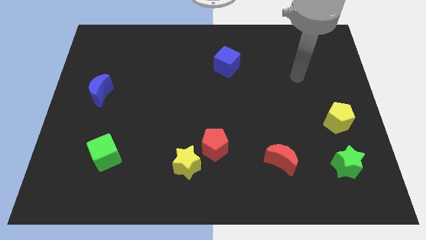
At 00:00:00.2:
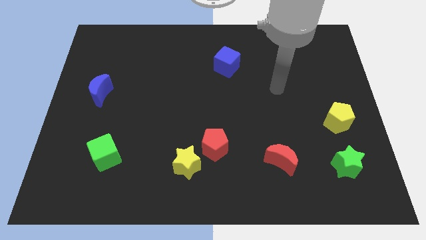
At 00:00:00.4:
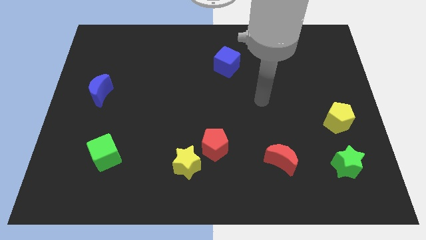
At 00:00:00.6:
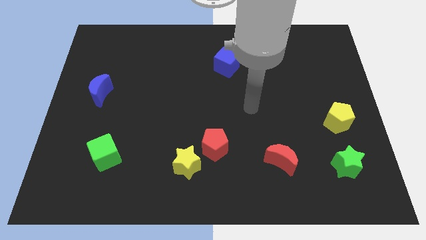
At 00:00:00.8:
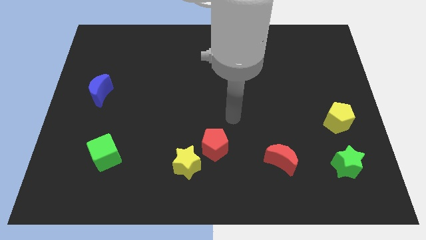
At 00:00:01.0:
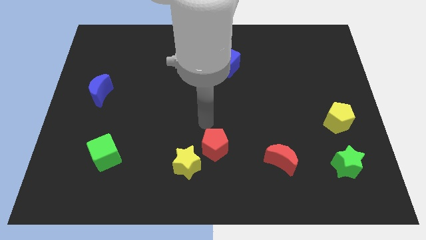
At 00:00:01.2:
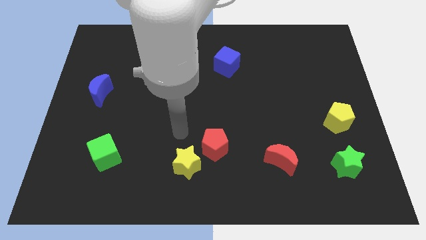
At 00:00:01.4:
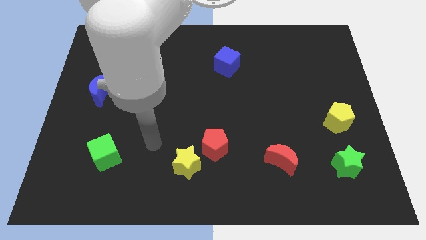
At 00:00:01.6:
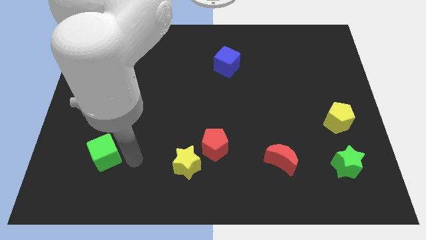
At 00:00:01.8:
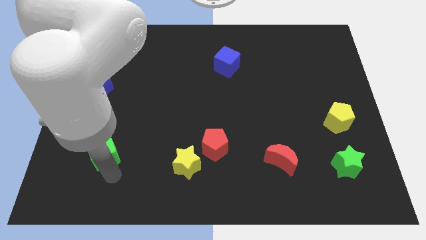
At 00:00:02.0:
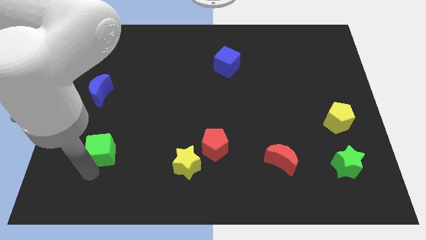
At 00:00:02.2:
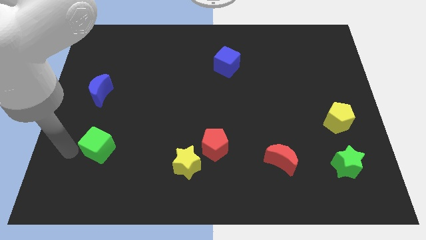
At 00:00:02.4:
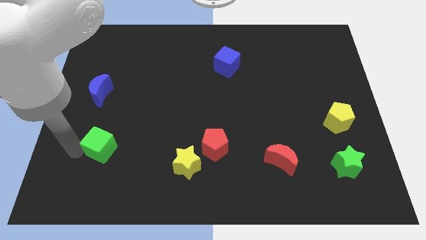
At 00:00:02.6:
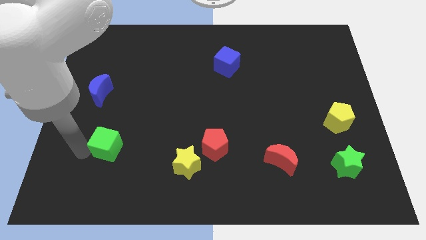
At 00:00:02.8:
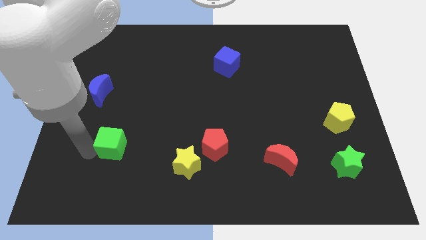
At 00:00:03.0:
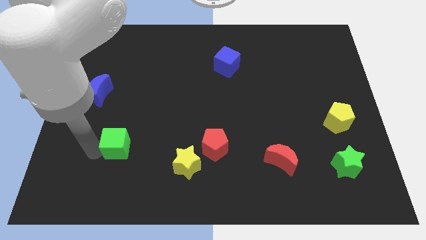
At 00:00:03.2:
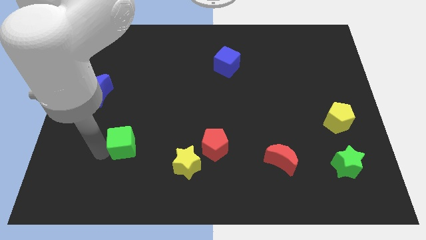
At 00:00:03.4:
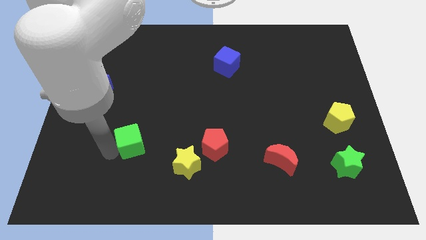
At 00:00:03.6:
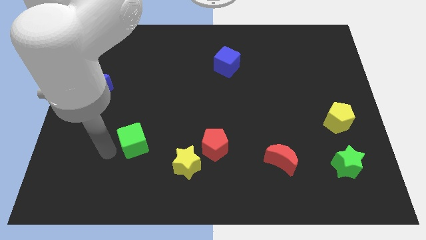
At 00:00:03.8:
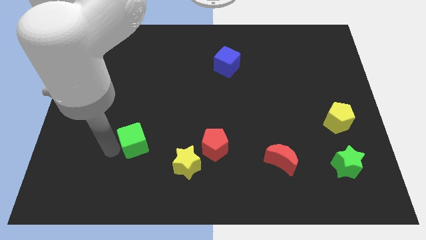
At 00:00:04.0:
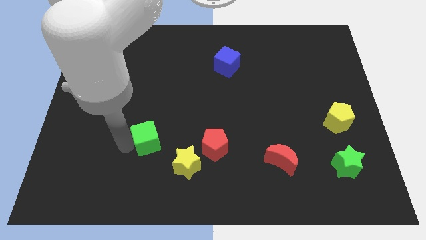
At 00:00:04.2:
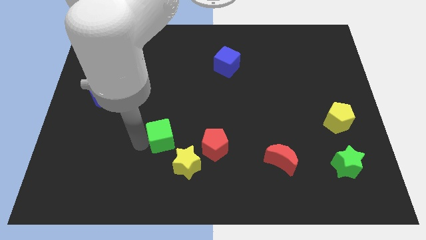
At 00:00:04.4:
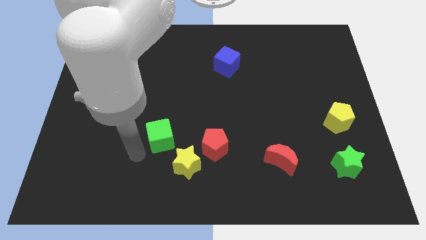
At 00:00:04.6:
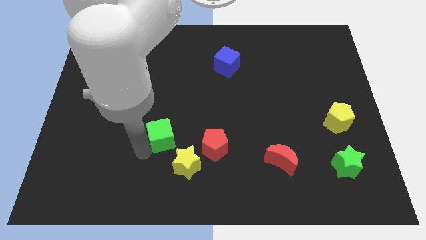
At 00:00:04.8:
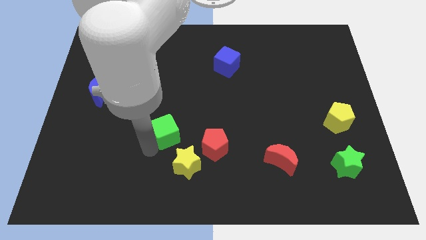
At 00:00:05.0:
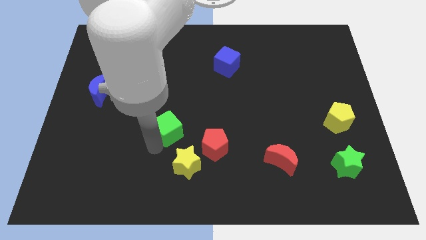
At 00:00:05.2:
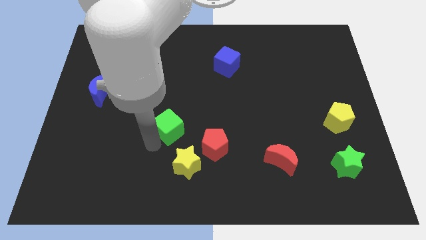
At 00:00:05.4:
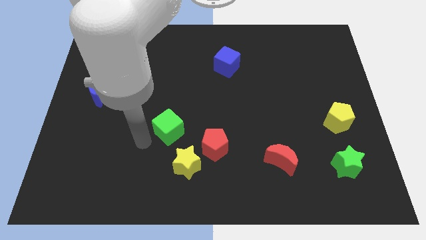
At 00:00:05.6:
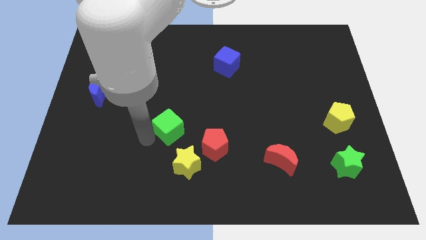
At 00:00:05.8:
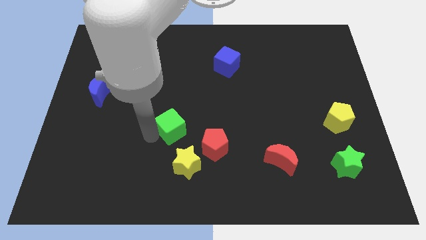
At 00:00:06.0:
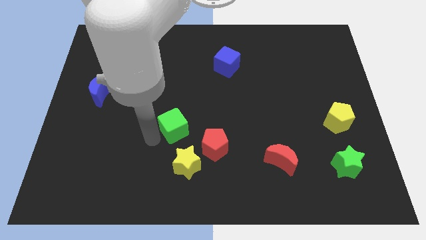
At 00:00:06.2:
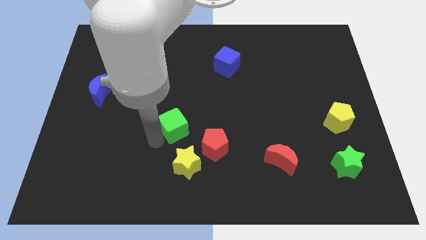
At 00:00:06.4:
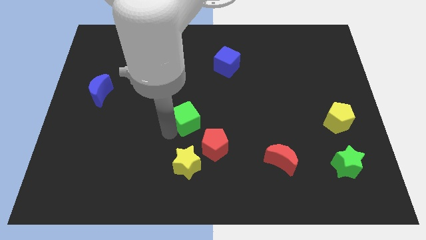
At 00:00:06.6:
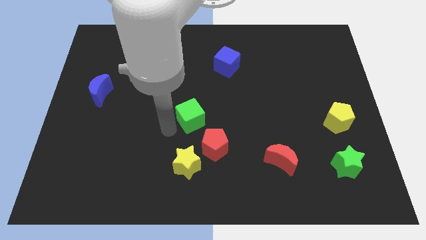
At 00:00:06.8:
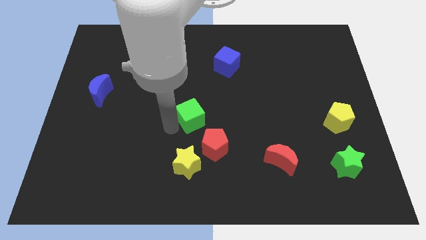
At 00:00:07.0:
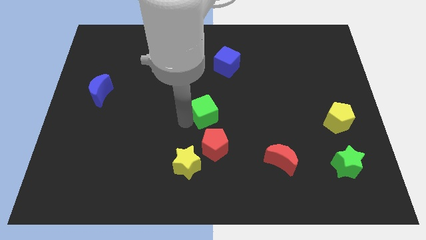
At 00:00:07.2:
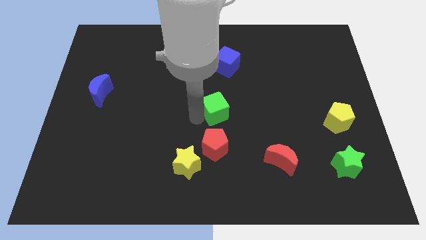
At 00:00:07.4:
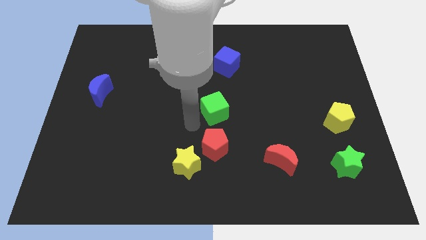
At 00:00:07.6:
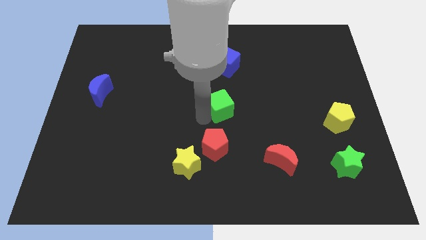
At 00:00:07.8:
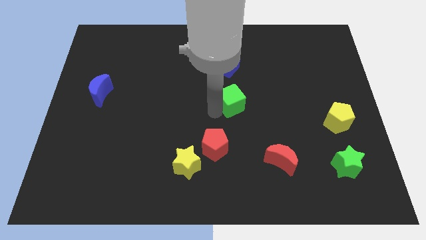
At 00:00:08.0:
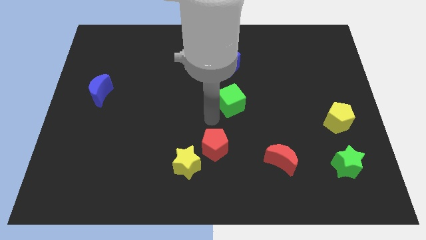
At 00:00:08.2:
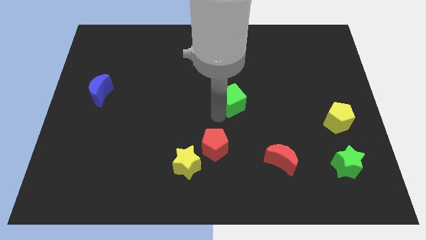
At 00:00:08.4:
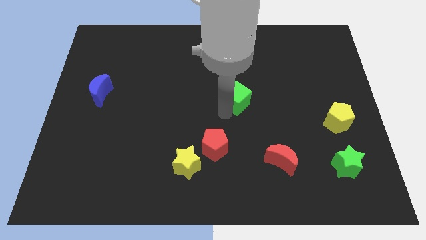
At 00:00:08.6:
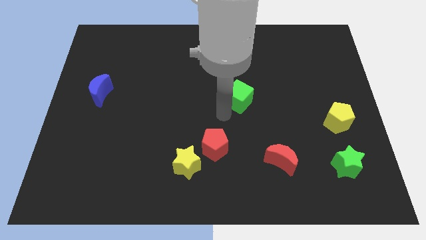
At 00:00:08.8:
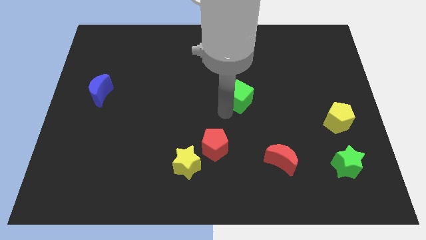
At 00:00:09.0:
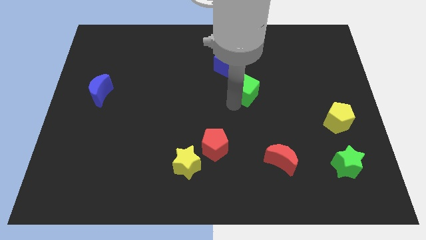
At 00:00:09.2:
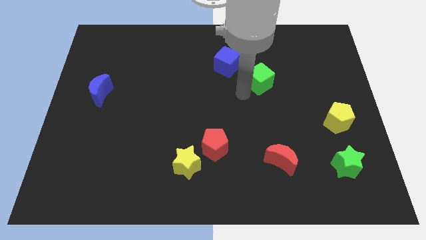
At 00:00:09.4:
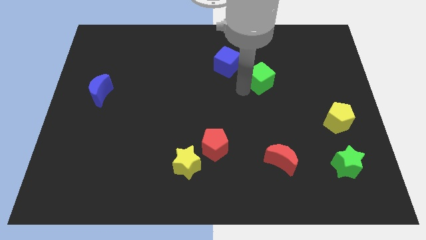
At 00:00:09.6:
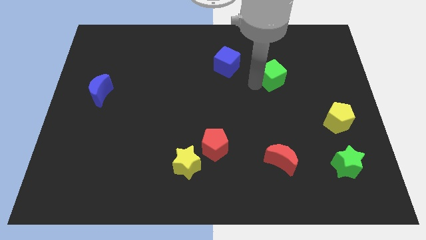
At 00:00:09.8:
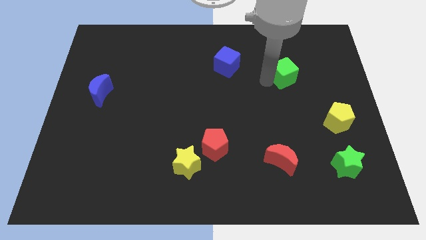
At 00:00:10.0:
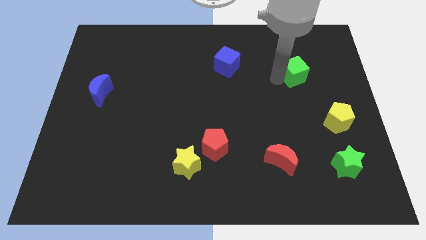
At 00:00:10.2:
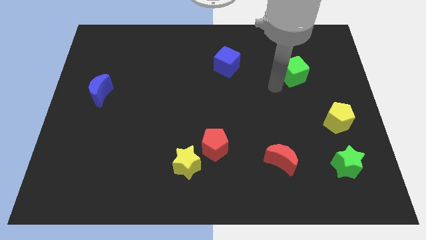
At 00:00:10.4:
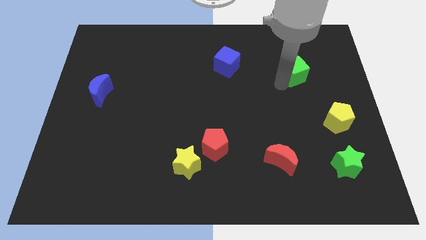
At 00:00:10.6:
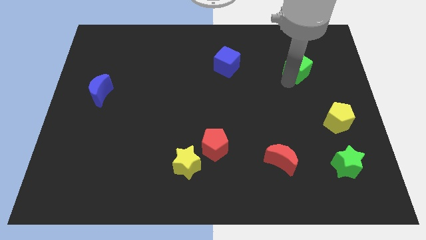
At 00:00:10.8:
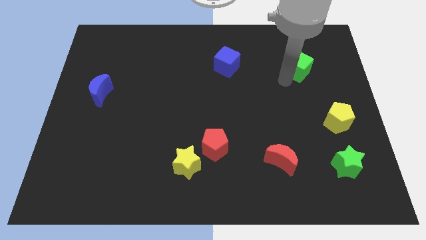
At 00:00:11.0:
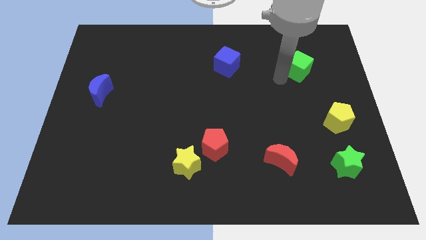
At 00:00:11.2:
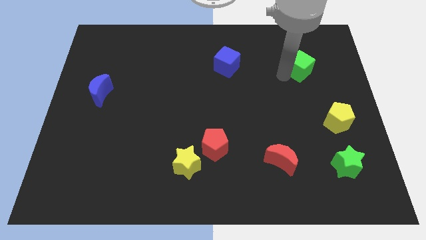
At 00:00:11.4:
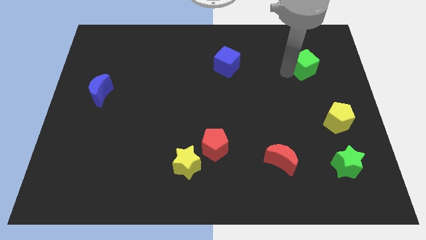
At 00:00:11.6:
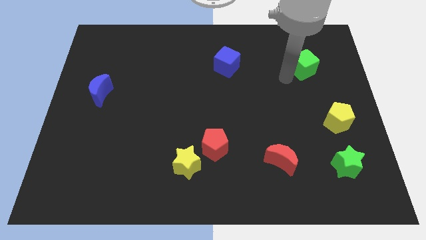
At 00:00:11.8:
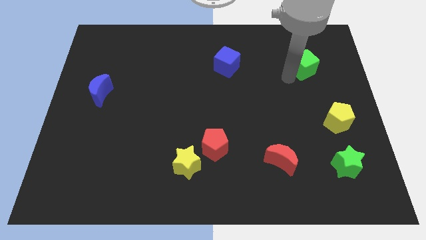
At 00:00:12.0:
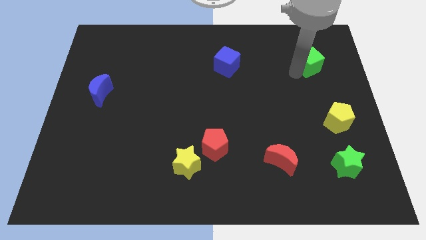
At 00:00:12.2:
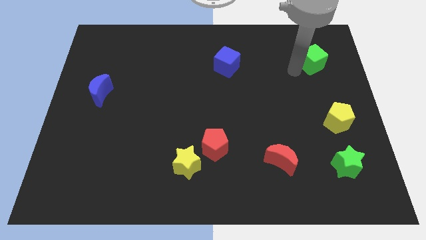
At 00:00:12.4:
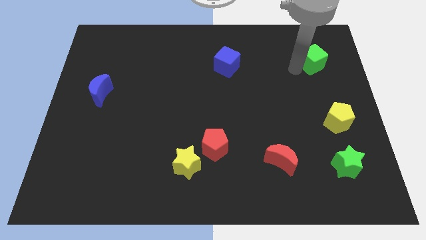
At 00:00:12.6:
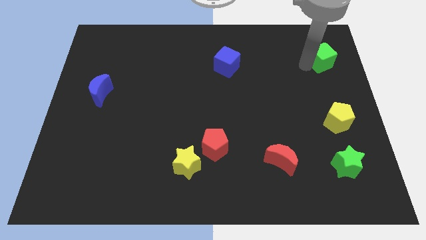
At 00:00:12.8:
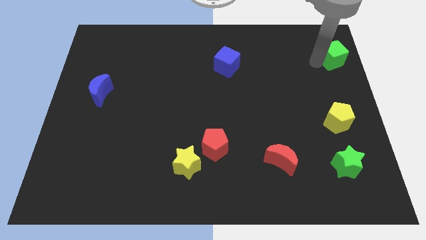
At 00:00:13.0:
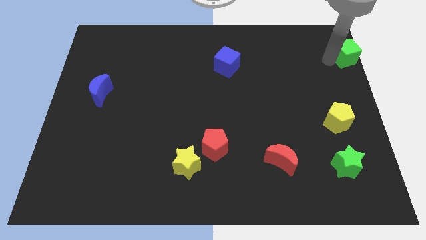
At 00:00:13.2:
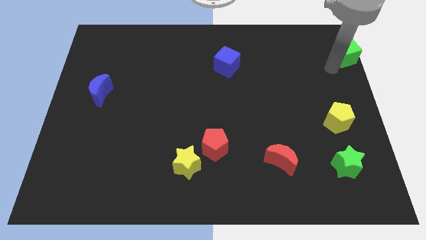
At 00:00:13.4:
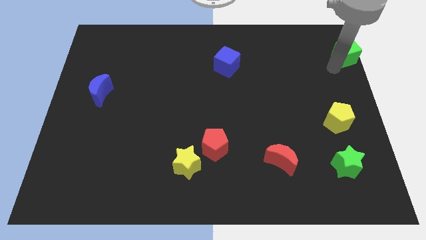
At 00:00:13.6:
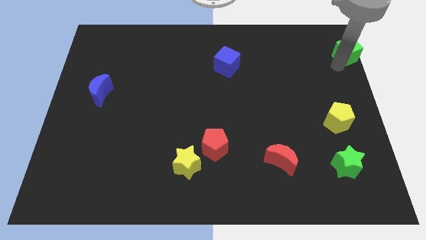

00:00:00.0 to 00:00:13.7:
put the green cube to the top right
